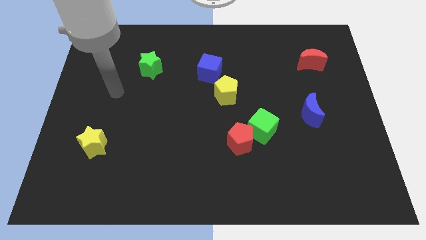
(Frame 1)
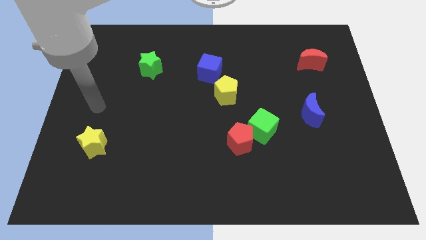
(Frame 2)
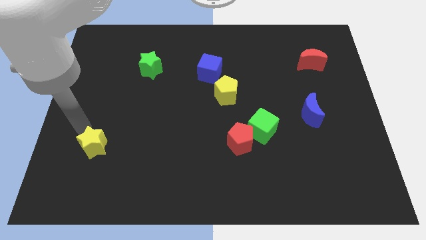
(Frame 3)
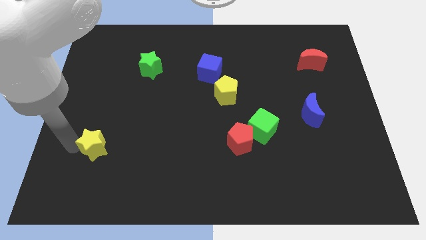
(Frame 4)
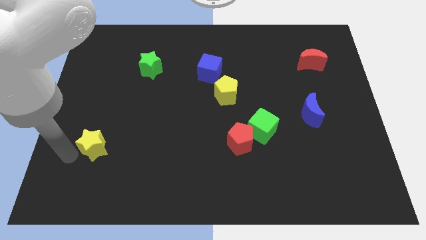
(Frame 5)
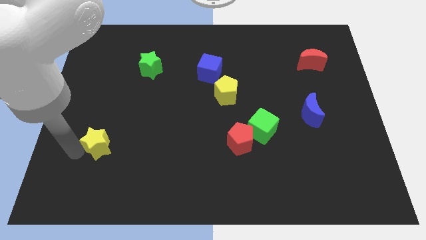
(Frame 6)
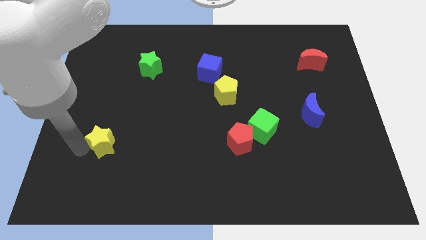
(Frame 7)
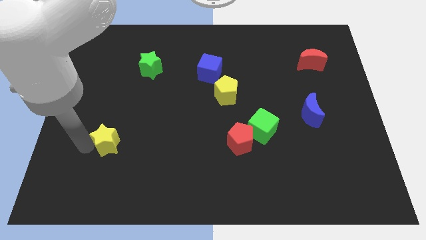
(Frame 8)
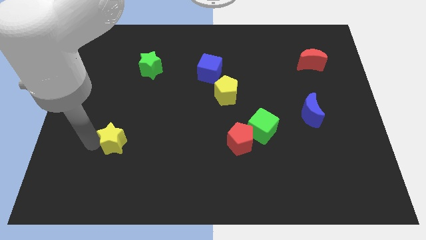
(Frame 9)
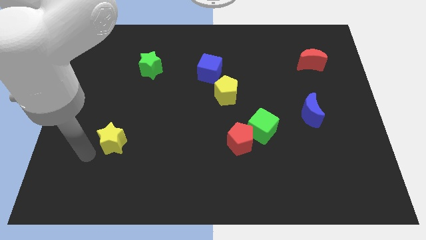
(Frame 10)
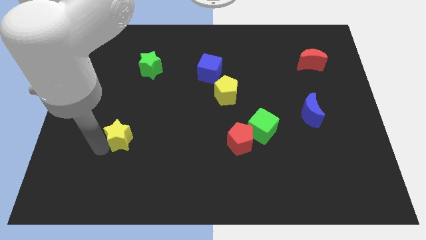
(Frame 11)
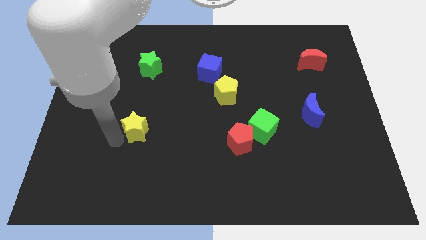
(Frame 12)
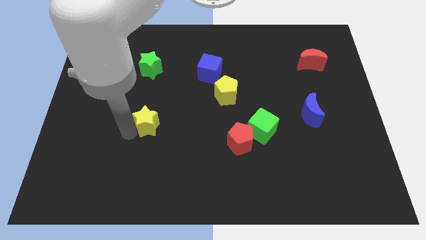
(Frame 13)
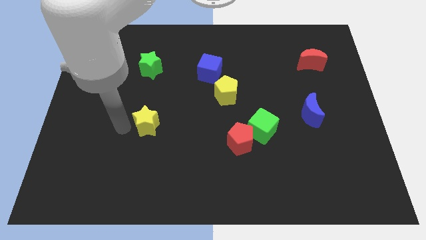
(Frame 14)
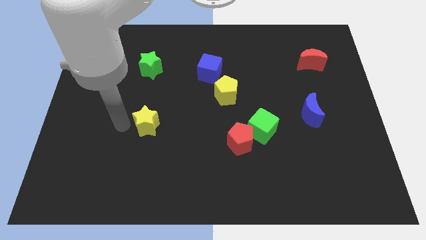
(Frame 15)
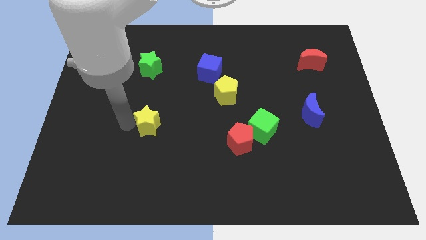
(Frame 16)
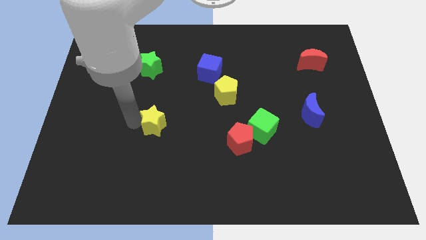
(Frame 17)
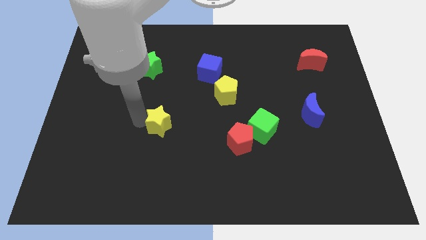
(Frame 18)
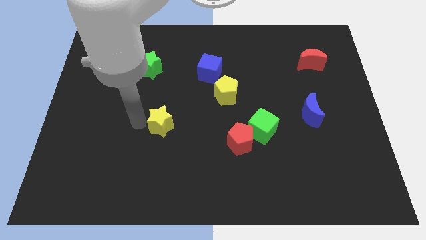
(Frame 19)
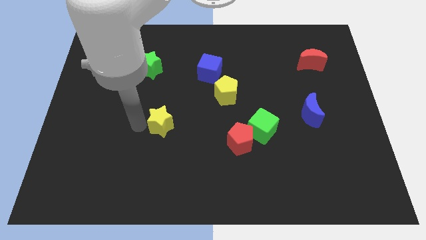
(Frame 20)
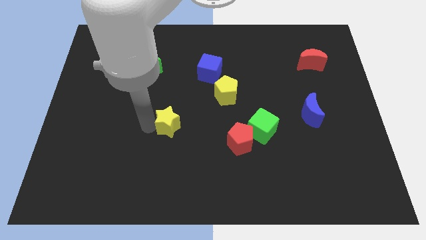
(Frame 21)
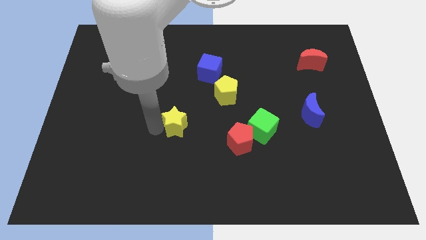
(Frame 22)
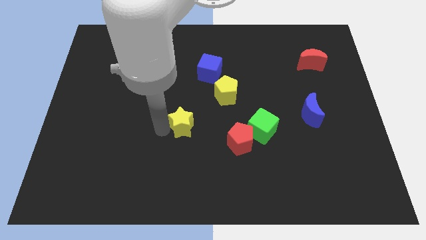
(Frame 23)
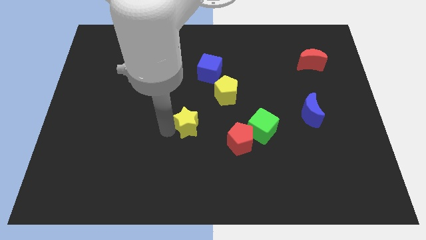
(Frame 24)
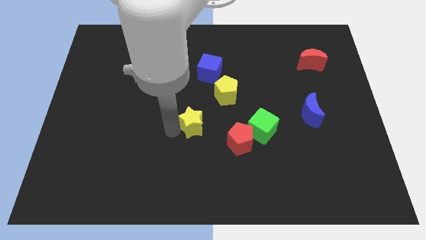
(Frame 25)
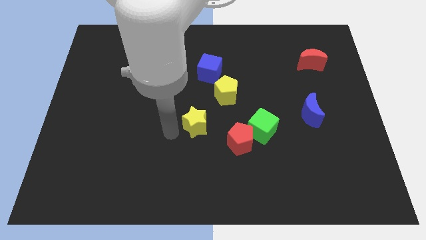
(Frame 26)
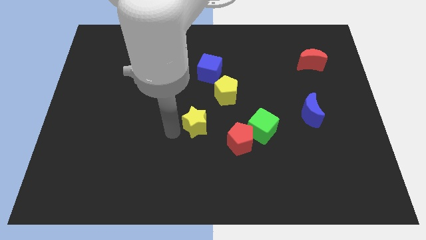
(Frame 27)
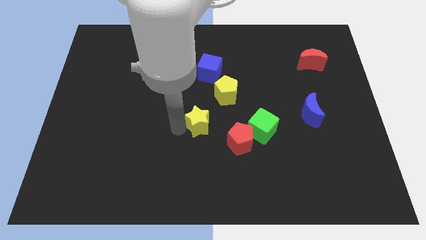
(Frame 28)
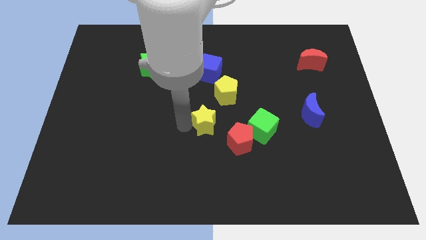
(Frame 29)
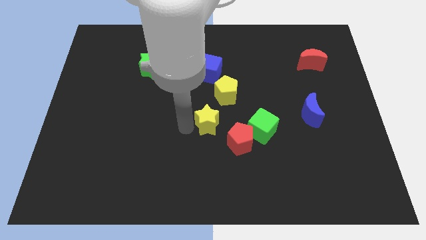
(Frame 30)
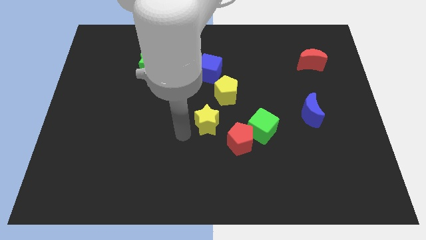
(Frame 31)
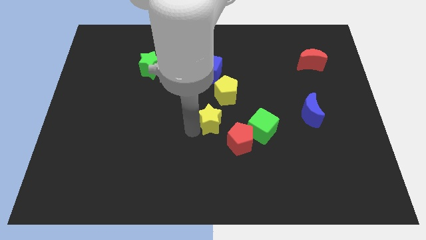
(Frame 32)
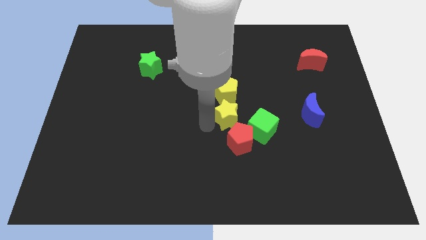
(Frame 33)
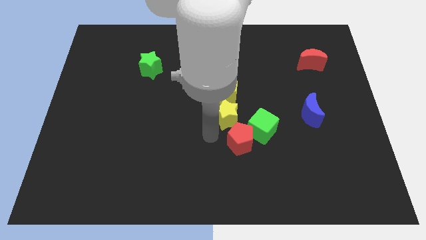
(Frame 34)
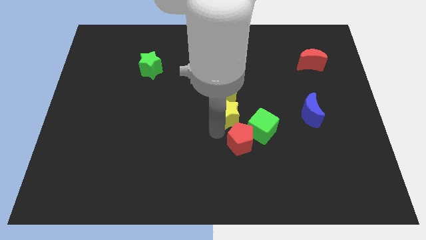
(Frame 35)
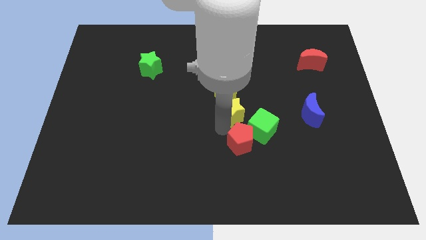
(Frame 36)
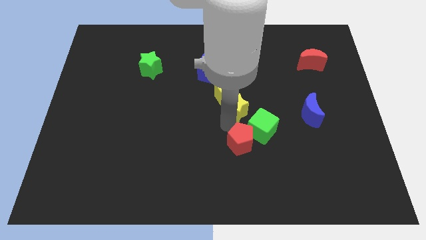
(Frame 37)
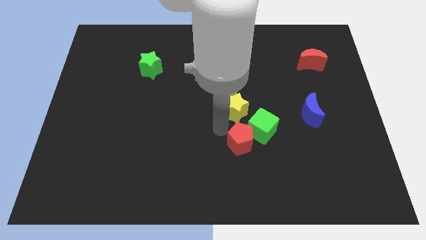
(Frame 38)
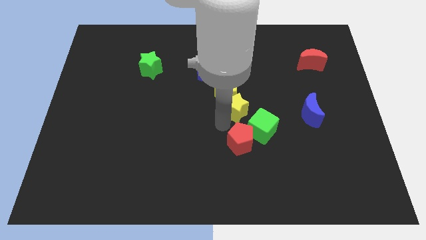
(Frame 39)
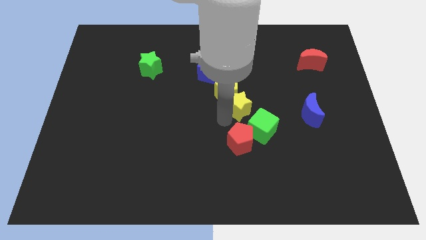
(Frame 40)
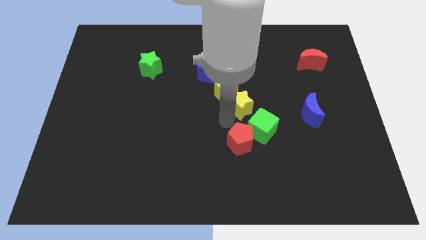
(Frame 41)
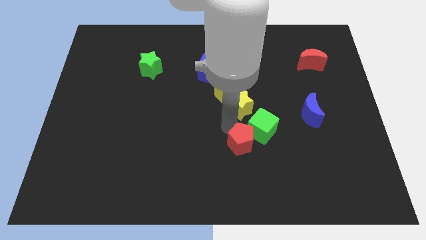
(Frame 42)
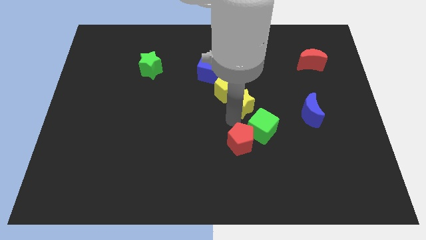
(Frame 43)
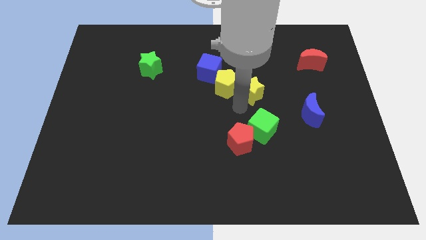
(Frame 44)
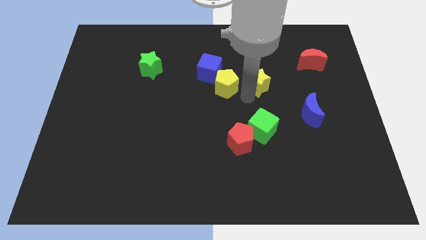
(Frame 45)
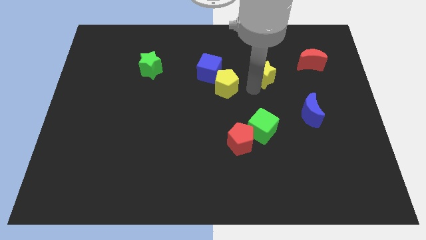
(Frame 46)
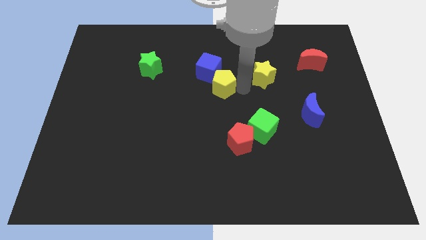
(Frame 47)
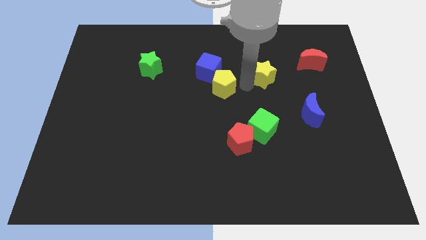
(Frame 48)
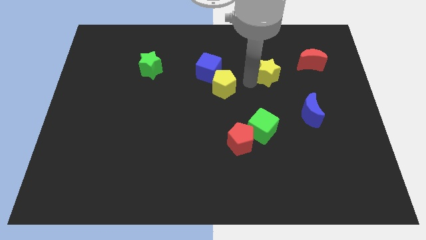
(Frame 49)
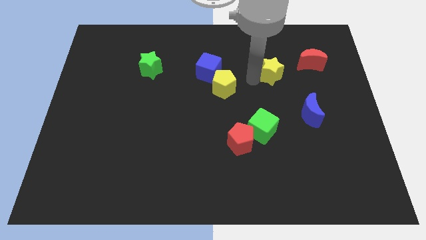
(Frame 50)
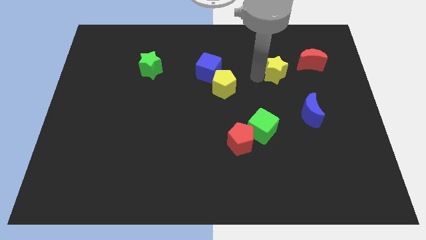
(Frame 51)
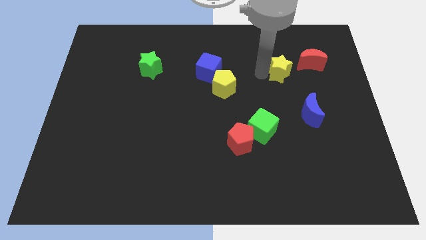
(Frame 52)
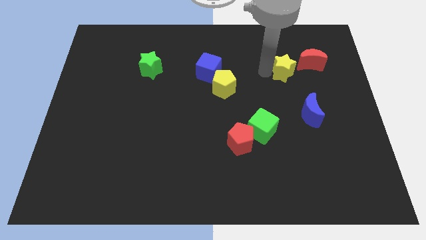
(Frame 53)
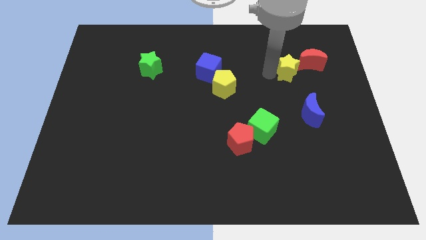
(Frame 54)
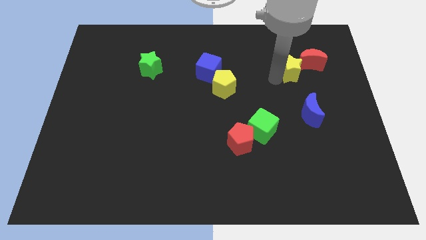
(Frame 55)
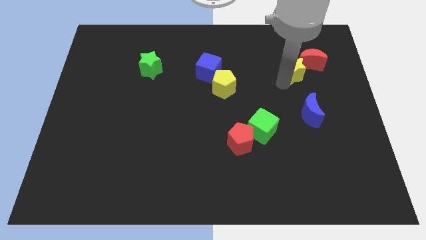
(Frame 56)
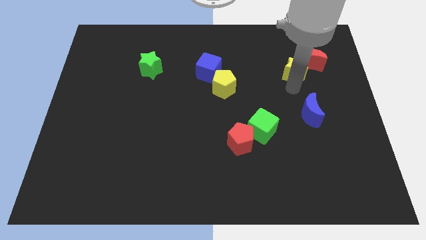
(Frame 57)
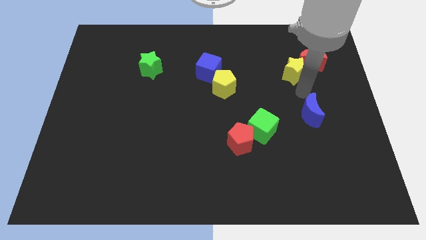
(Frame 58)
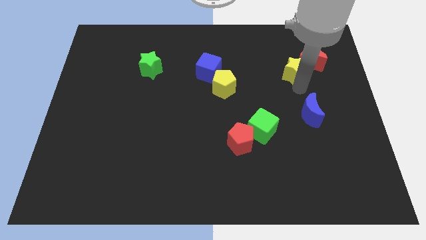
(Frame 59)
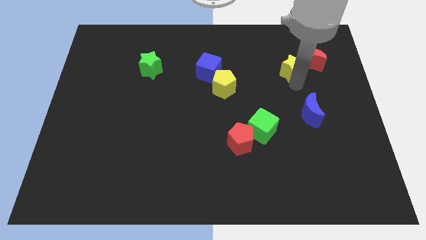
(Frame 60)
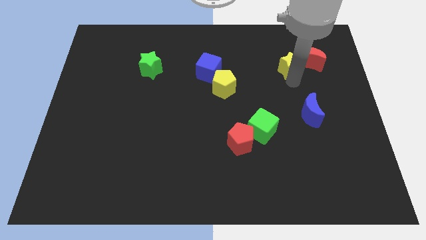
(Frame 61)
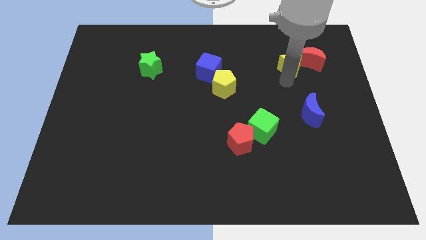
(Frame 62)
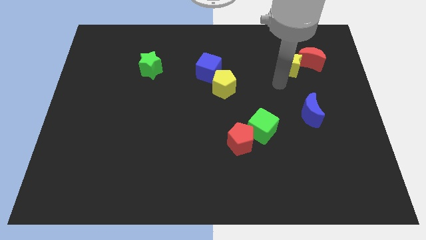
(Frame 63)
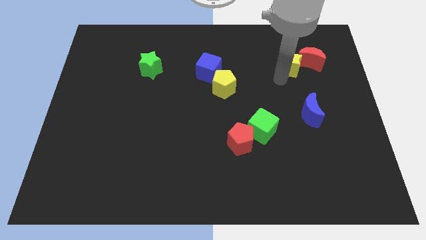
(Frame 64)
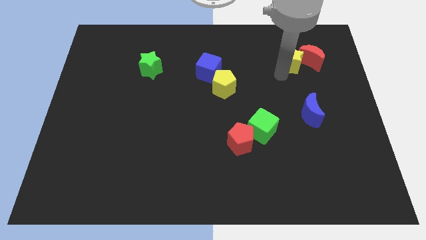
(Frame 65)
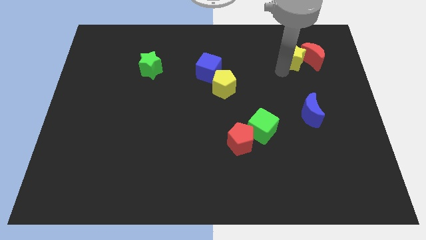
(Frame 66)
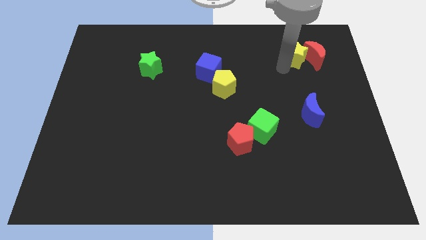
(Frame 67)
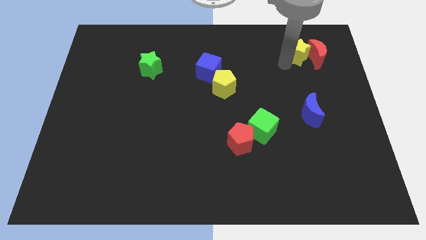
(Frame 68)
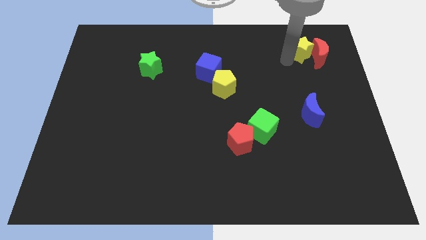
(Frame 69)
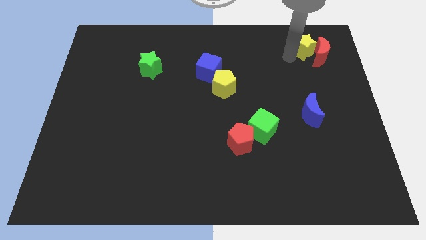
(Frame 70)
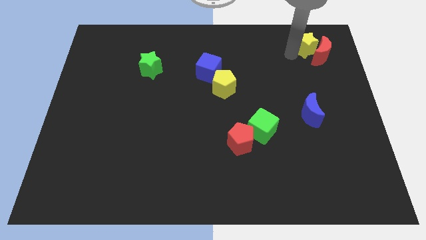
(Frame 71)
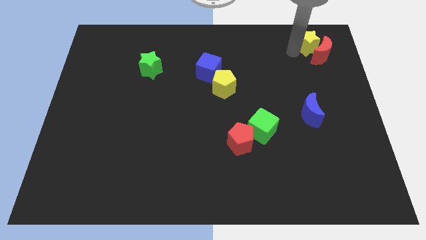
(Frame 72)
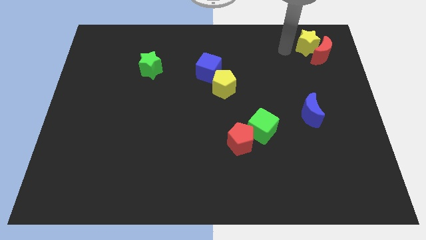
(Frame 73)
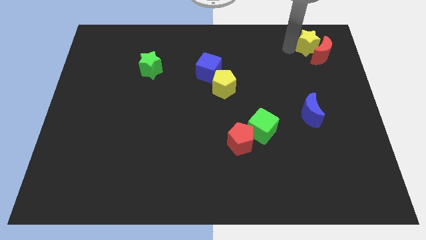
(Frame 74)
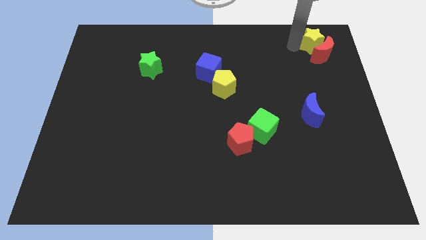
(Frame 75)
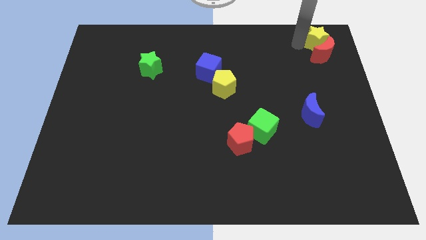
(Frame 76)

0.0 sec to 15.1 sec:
slide the yellow star to the upper right corner

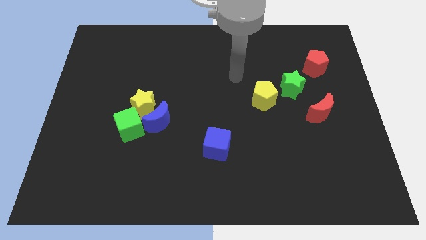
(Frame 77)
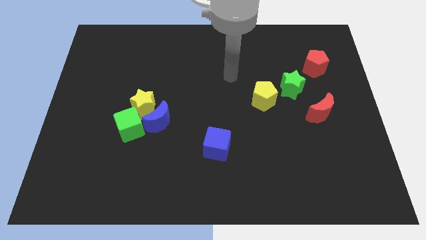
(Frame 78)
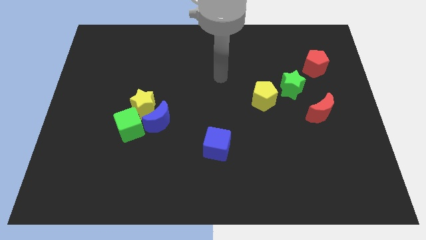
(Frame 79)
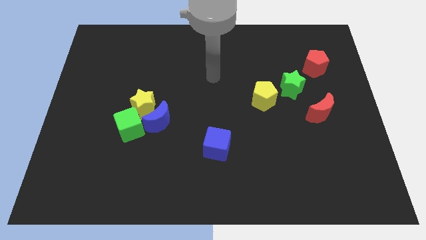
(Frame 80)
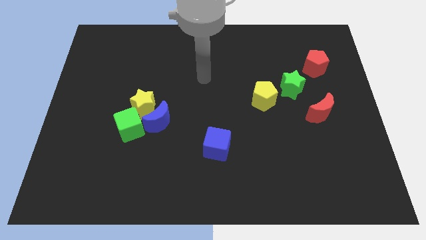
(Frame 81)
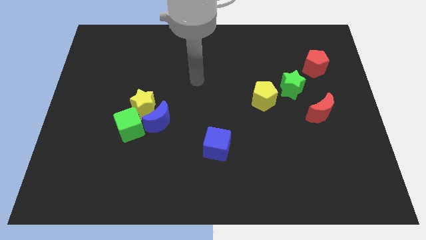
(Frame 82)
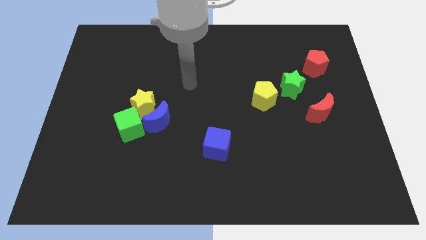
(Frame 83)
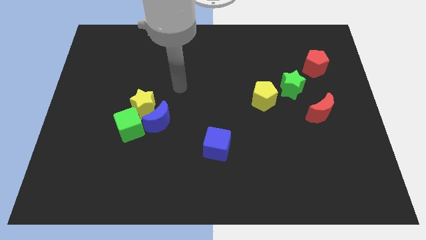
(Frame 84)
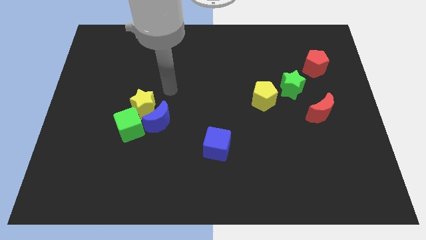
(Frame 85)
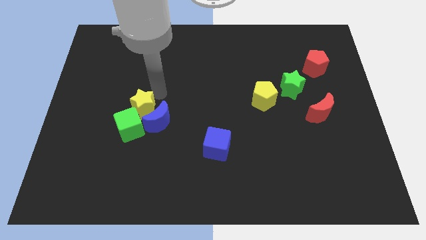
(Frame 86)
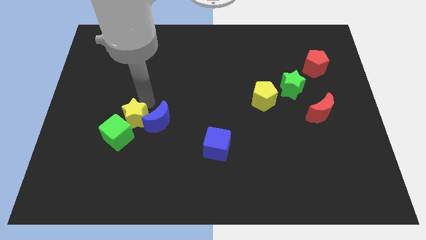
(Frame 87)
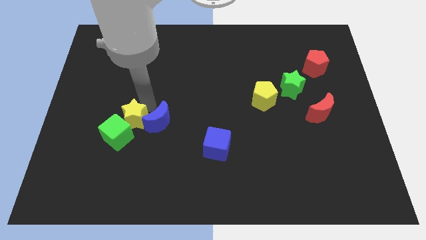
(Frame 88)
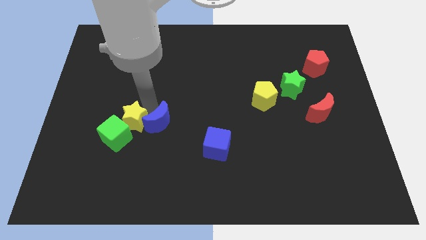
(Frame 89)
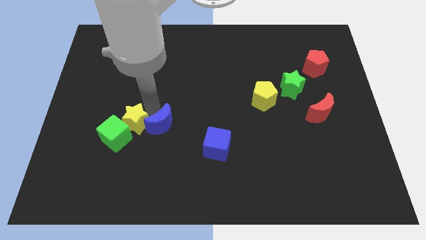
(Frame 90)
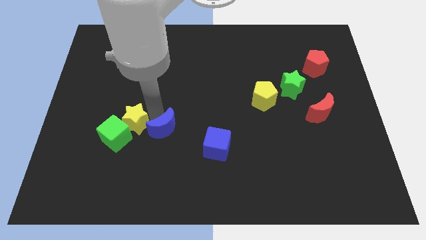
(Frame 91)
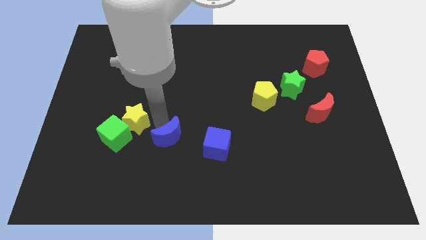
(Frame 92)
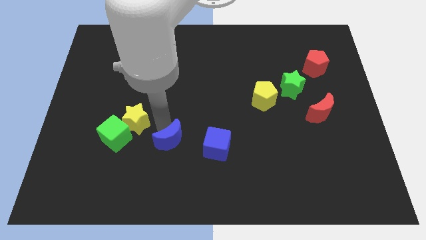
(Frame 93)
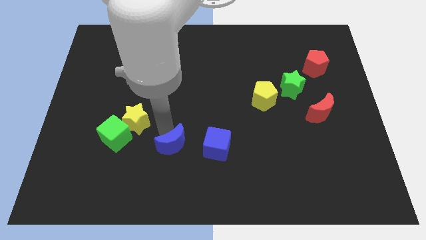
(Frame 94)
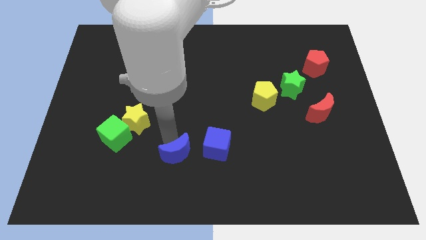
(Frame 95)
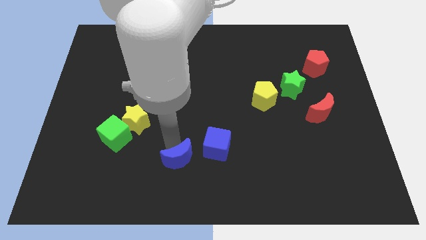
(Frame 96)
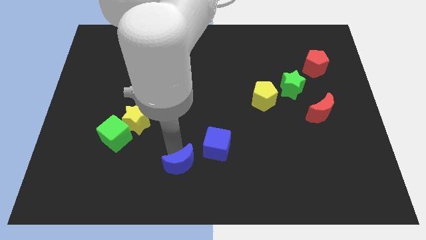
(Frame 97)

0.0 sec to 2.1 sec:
push the blue moon to the bottom
